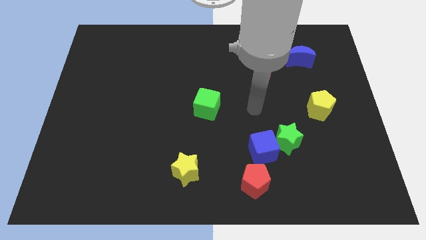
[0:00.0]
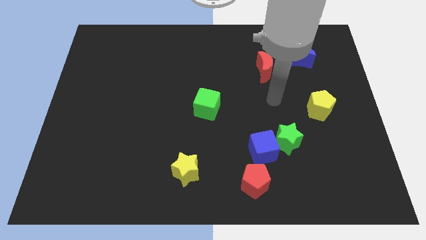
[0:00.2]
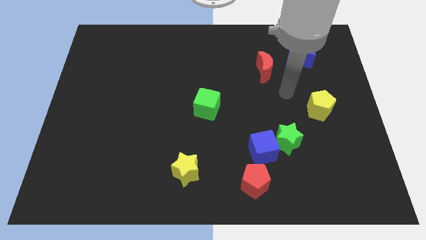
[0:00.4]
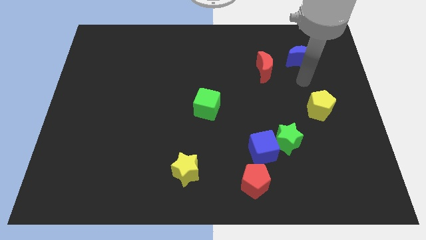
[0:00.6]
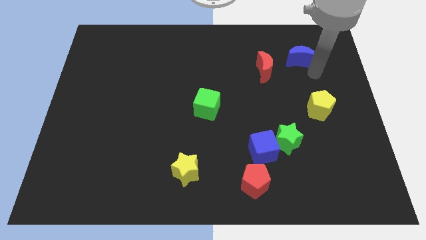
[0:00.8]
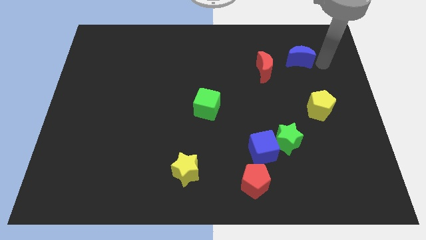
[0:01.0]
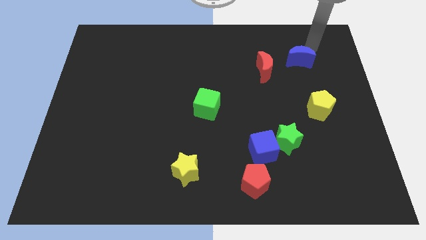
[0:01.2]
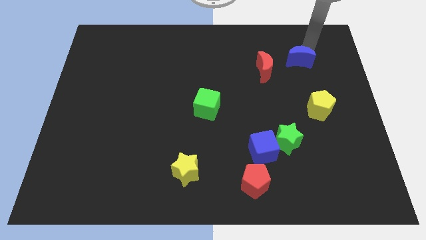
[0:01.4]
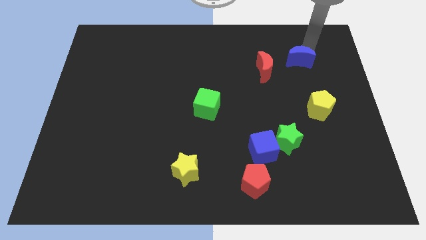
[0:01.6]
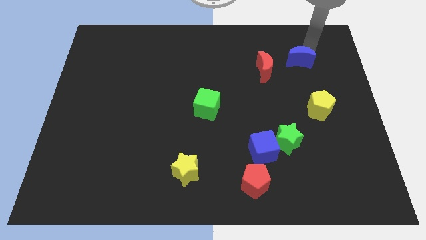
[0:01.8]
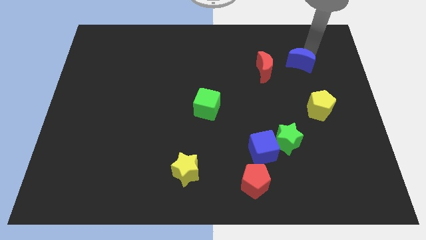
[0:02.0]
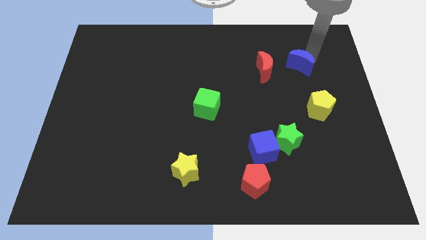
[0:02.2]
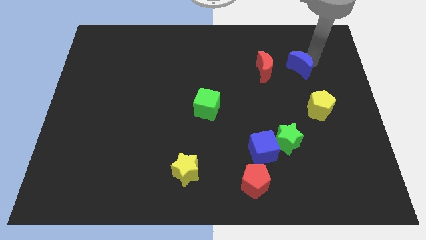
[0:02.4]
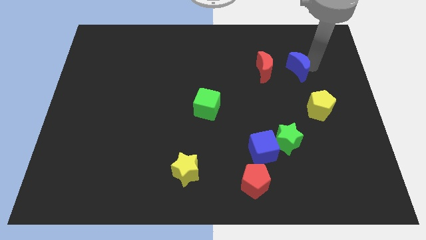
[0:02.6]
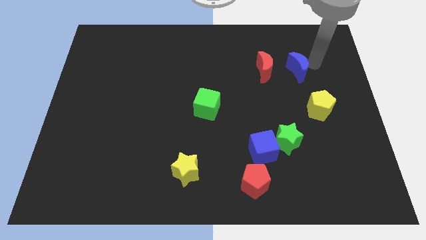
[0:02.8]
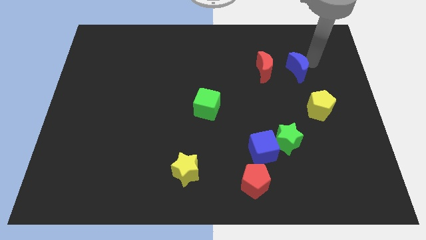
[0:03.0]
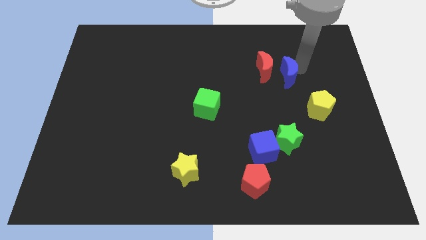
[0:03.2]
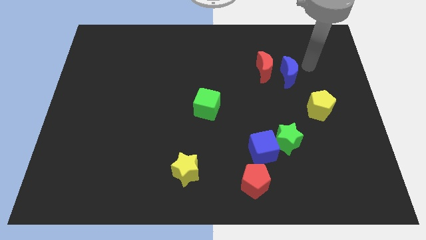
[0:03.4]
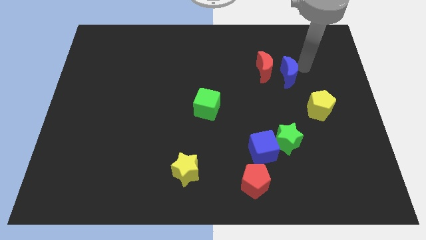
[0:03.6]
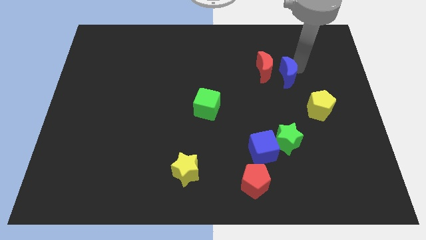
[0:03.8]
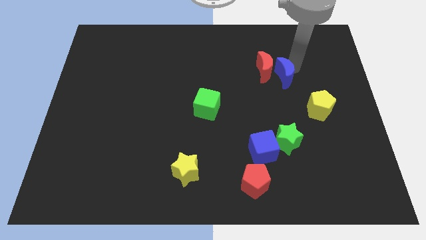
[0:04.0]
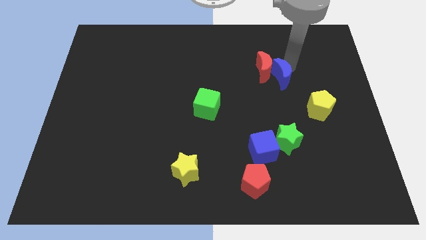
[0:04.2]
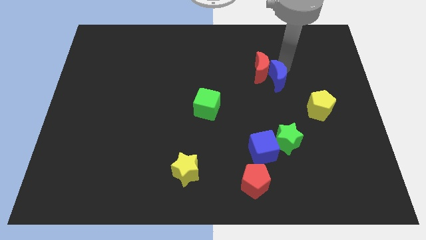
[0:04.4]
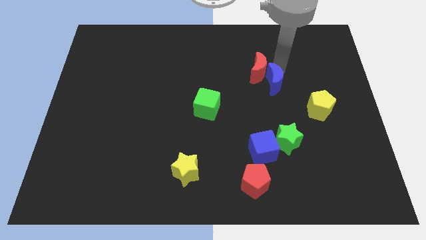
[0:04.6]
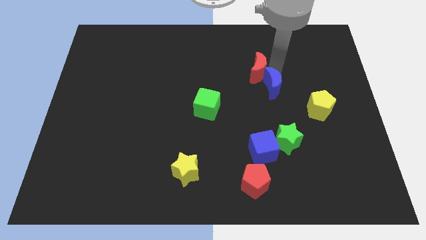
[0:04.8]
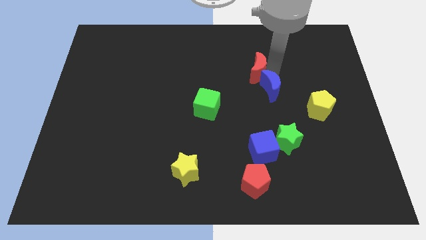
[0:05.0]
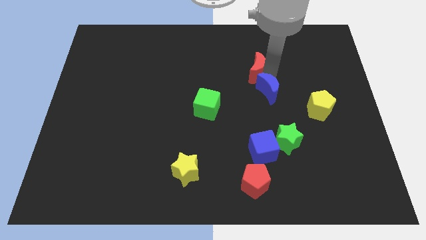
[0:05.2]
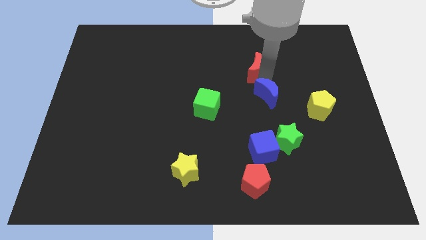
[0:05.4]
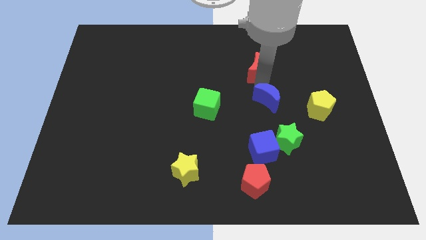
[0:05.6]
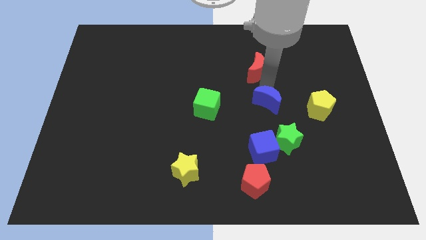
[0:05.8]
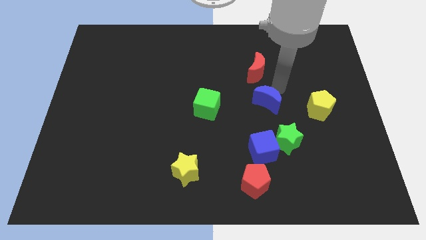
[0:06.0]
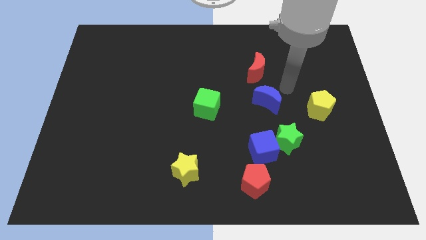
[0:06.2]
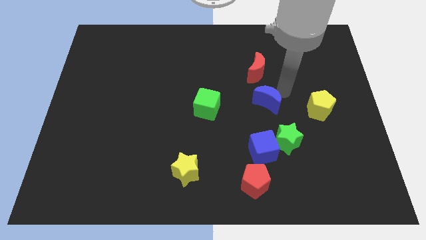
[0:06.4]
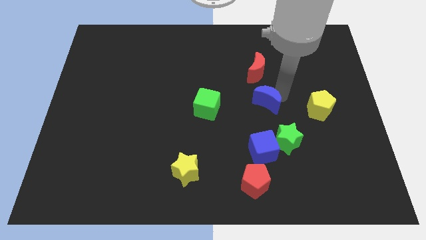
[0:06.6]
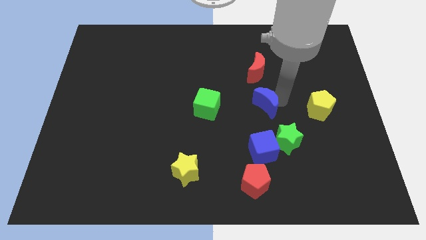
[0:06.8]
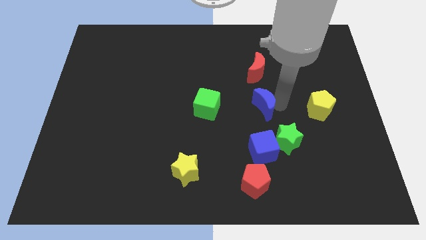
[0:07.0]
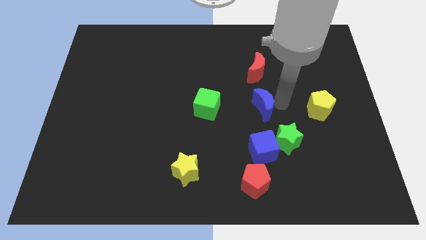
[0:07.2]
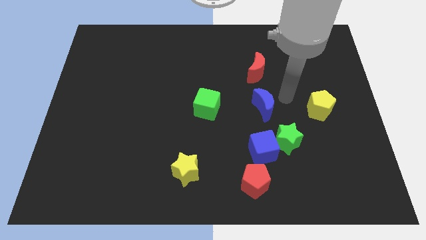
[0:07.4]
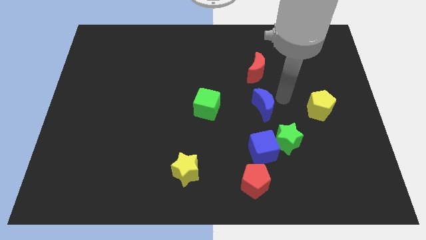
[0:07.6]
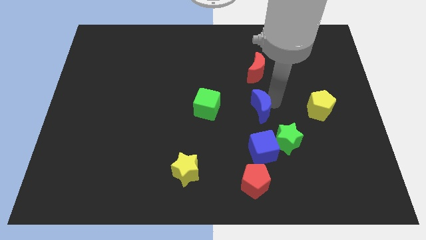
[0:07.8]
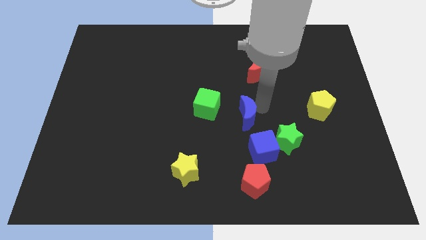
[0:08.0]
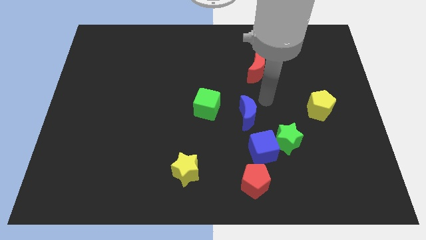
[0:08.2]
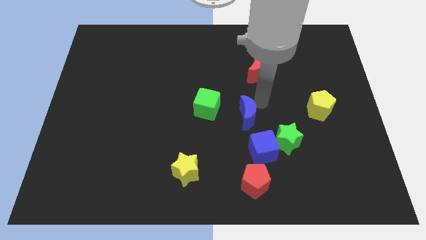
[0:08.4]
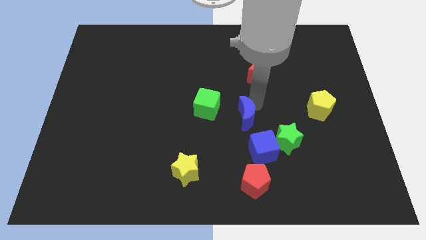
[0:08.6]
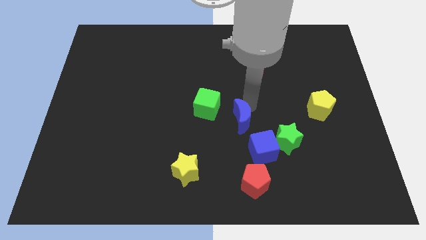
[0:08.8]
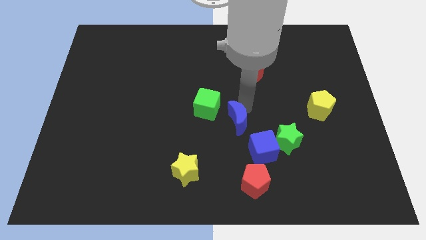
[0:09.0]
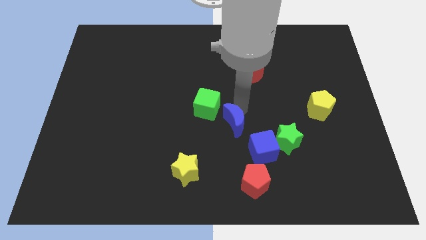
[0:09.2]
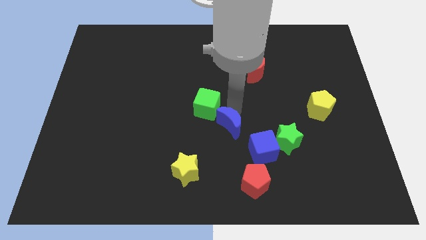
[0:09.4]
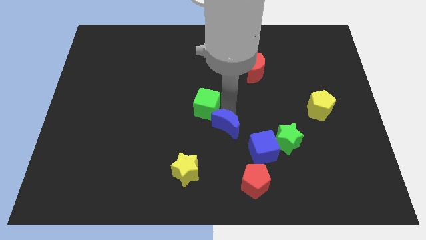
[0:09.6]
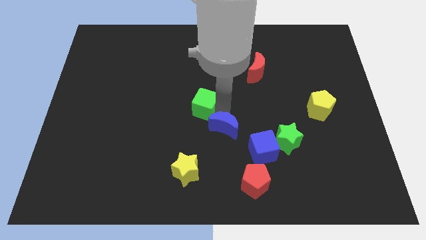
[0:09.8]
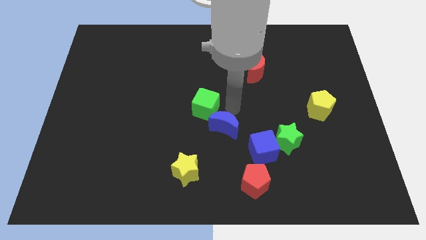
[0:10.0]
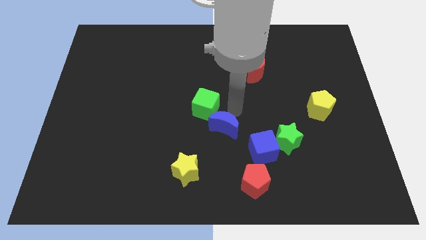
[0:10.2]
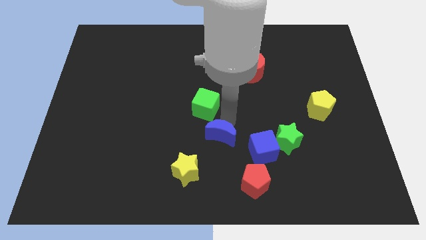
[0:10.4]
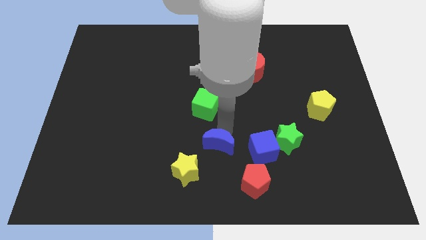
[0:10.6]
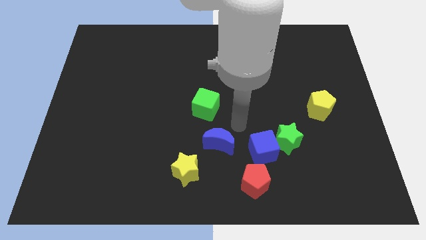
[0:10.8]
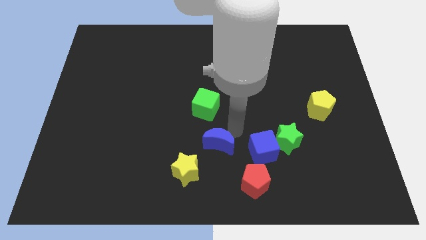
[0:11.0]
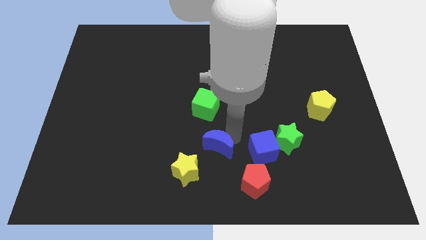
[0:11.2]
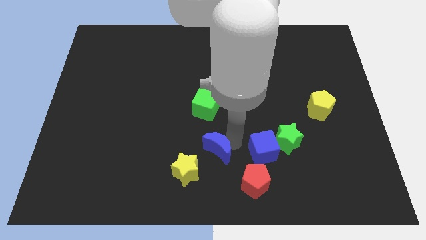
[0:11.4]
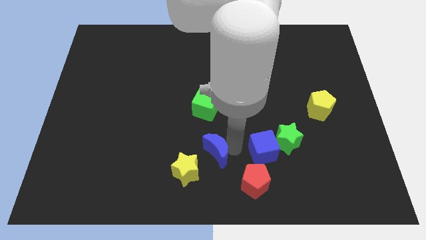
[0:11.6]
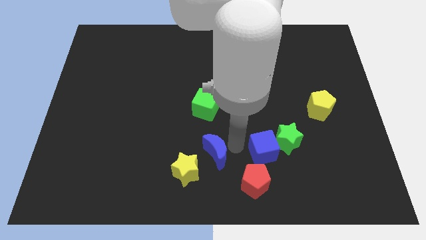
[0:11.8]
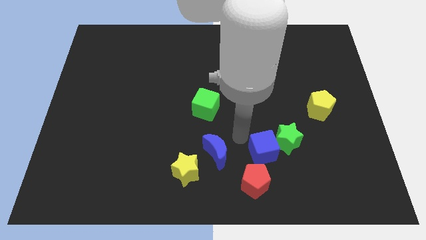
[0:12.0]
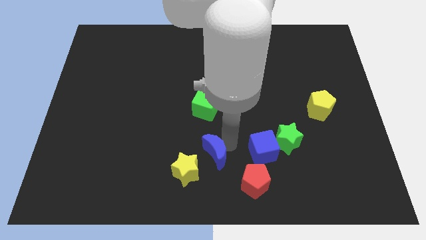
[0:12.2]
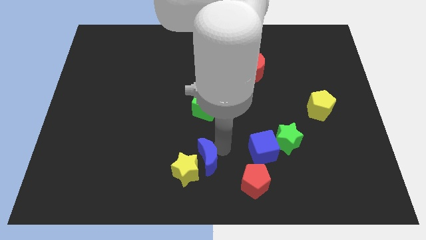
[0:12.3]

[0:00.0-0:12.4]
move the blue moon towards the yellow star

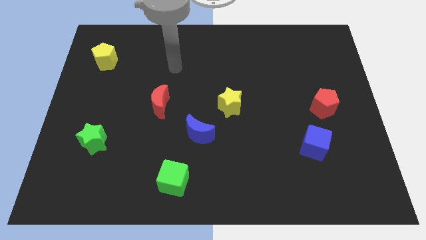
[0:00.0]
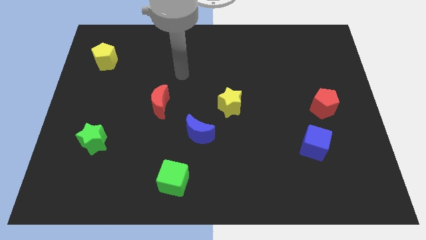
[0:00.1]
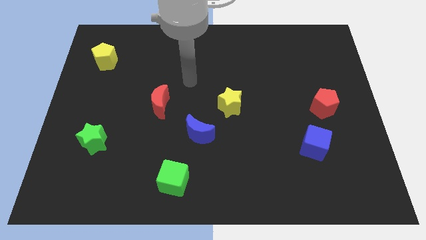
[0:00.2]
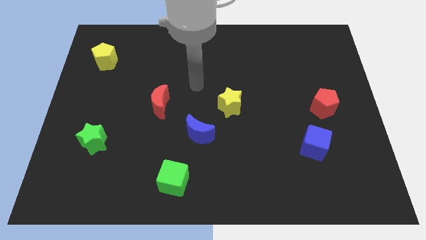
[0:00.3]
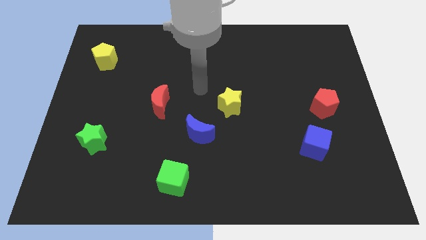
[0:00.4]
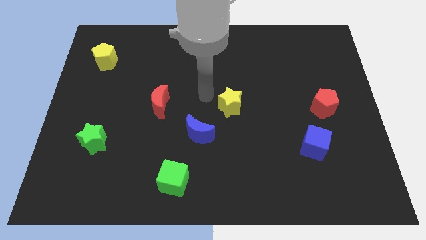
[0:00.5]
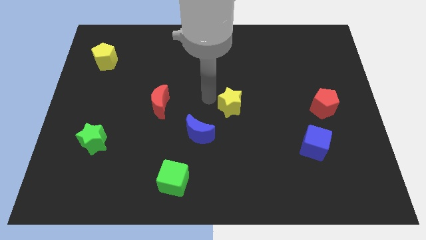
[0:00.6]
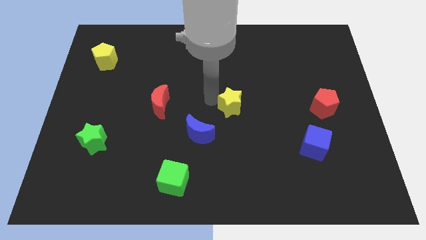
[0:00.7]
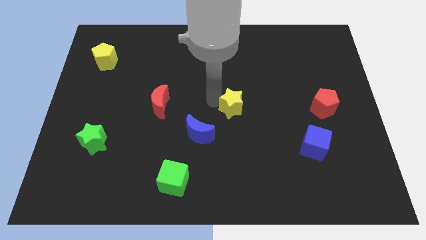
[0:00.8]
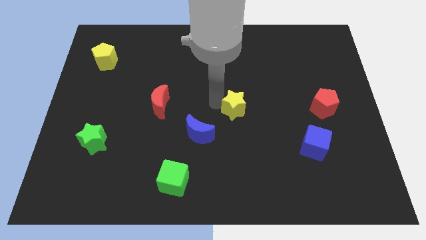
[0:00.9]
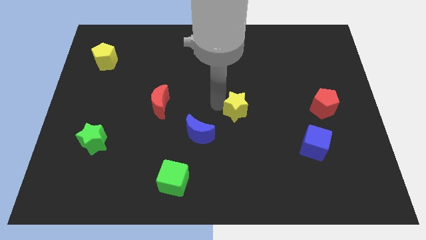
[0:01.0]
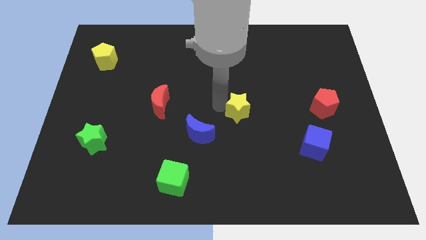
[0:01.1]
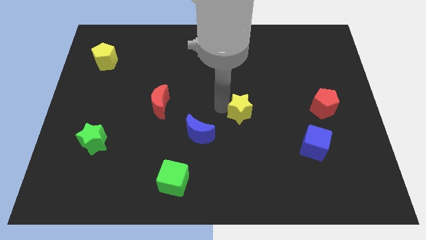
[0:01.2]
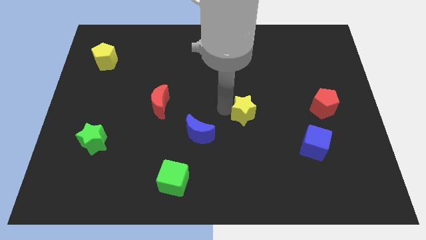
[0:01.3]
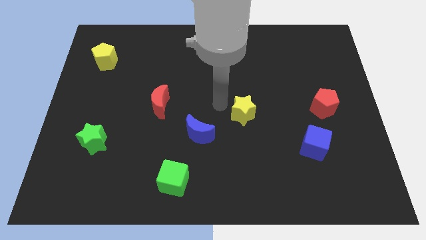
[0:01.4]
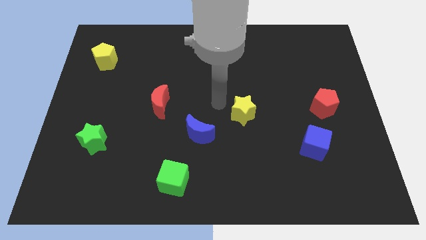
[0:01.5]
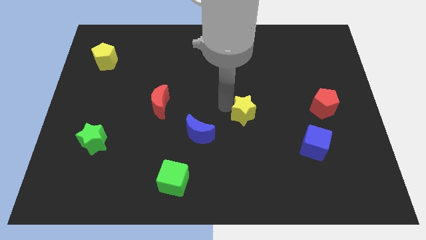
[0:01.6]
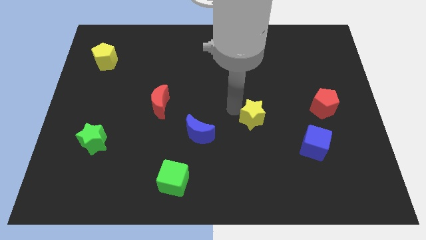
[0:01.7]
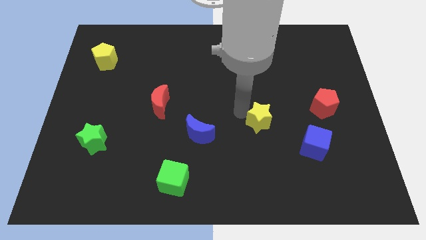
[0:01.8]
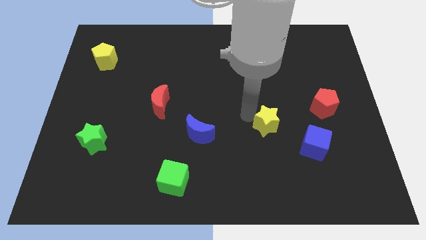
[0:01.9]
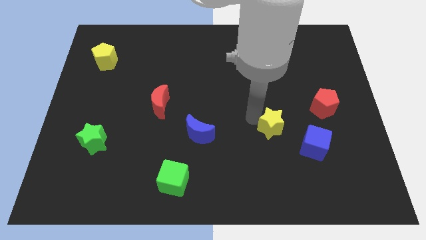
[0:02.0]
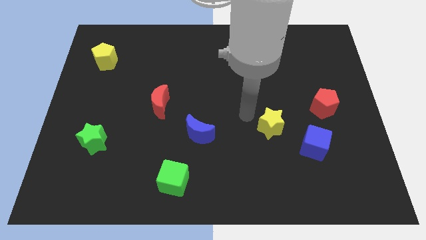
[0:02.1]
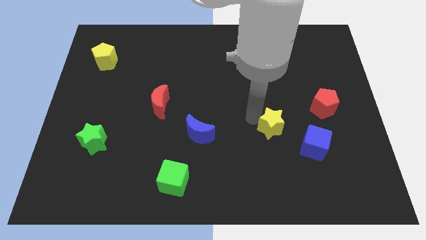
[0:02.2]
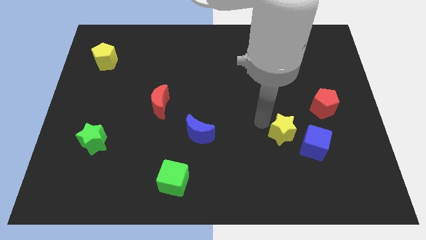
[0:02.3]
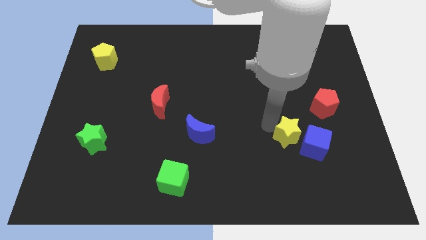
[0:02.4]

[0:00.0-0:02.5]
put the yellow star towards the blue cube
